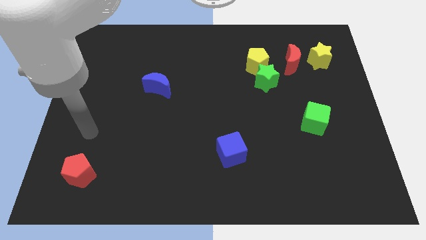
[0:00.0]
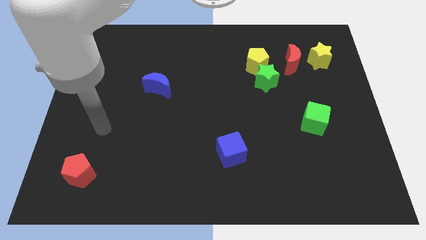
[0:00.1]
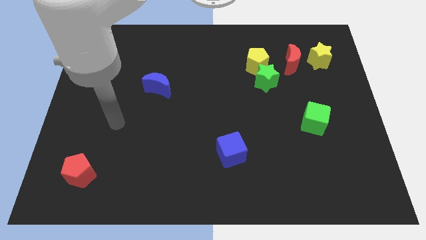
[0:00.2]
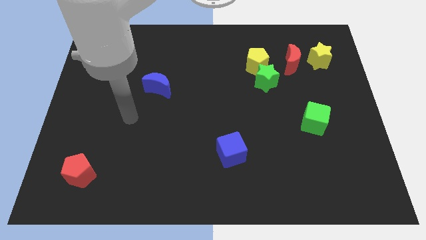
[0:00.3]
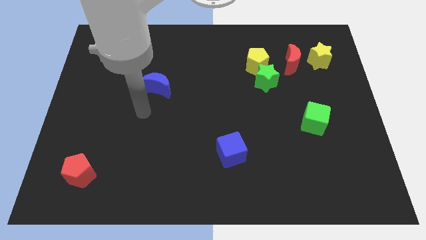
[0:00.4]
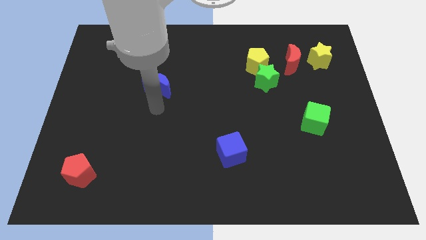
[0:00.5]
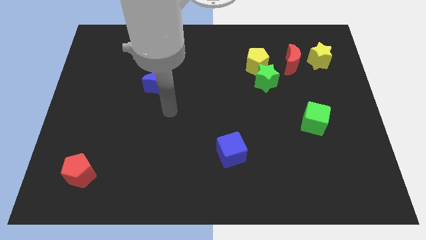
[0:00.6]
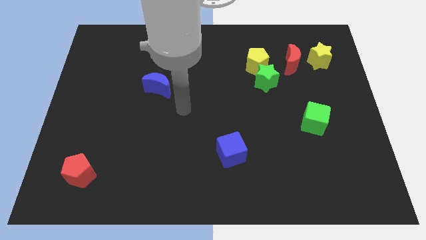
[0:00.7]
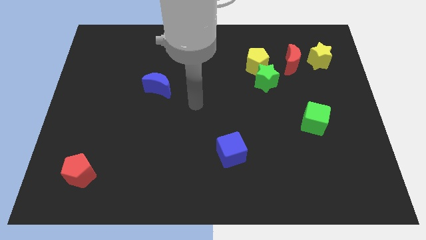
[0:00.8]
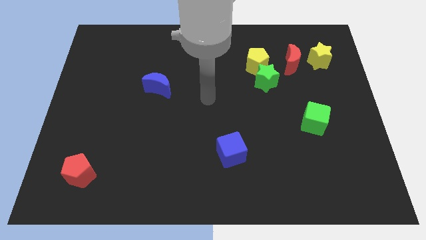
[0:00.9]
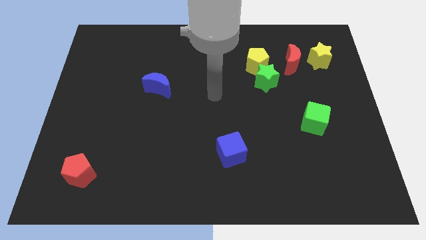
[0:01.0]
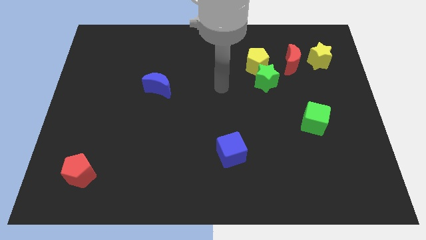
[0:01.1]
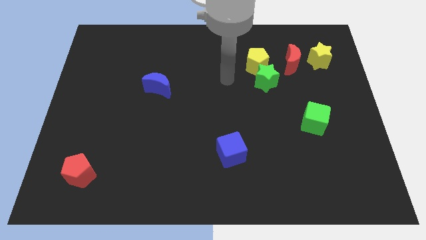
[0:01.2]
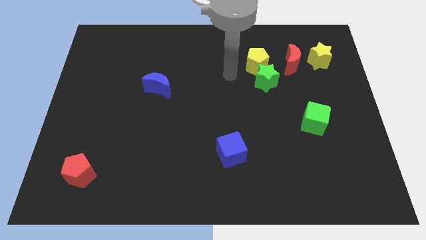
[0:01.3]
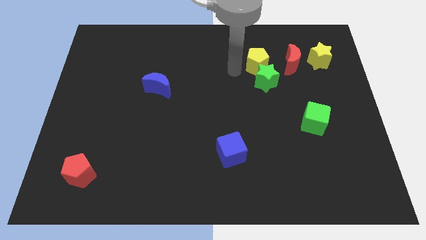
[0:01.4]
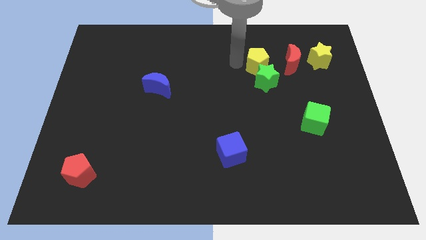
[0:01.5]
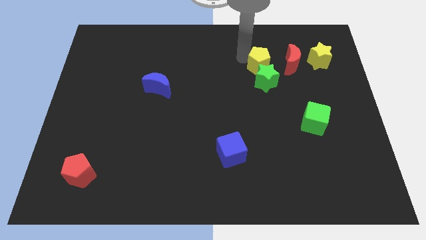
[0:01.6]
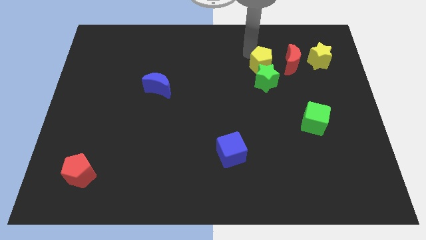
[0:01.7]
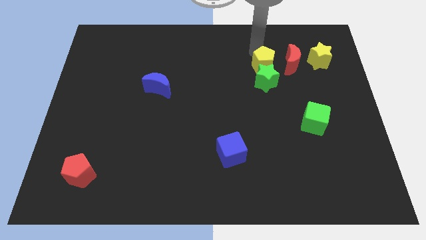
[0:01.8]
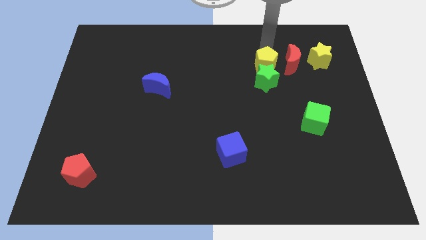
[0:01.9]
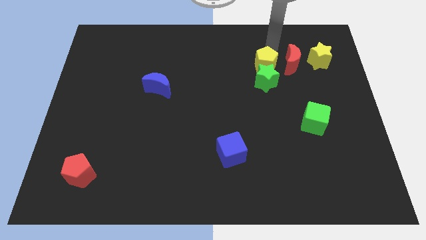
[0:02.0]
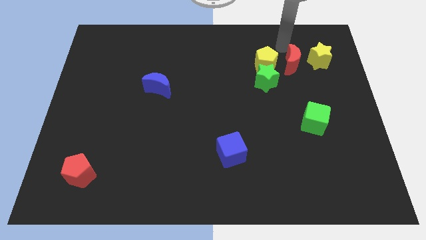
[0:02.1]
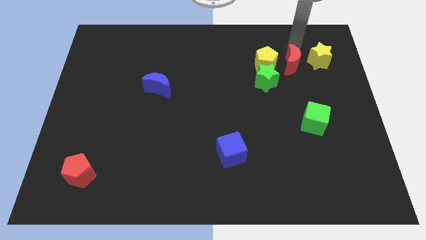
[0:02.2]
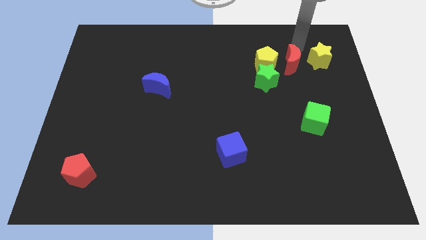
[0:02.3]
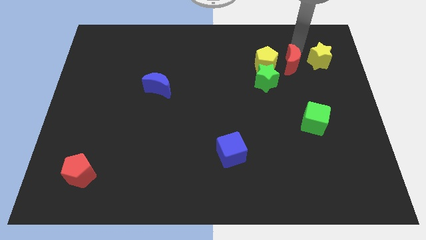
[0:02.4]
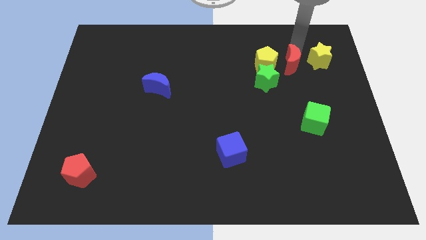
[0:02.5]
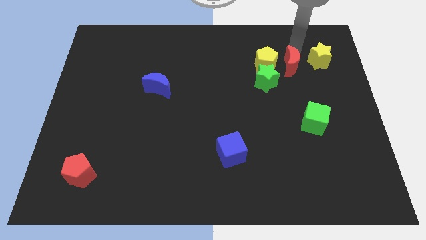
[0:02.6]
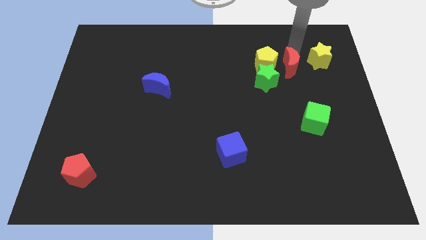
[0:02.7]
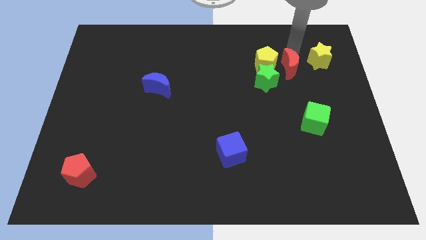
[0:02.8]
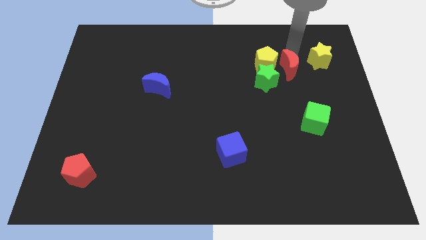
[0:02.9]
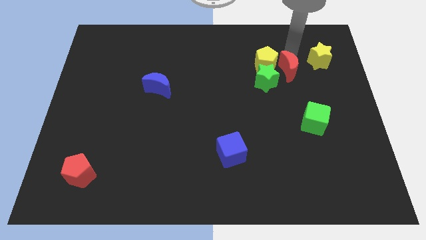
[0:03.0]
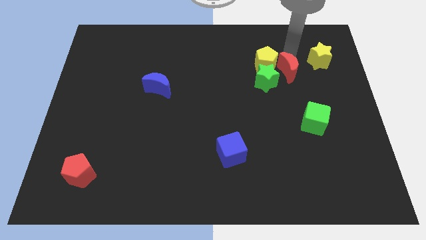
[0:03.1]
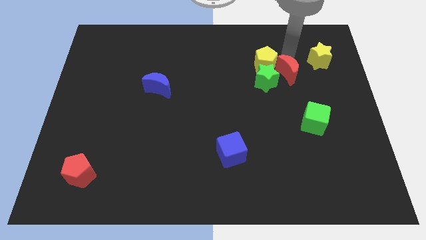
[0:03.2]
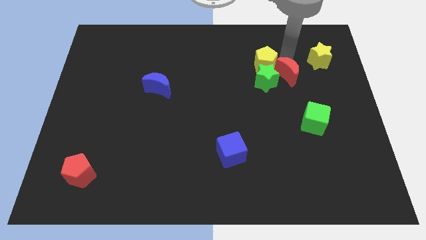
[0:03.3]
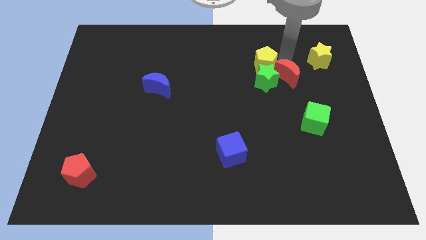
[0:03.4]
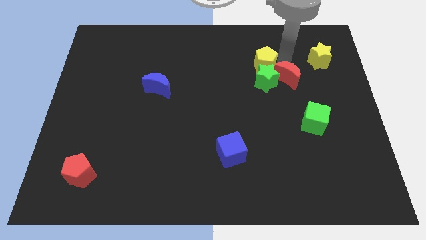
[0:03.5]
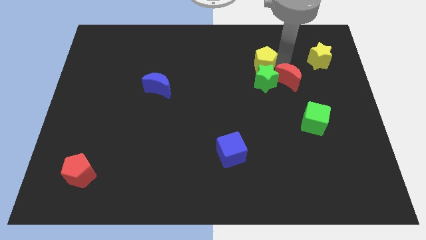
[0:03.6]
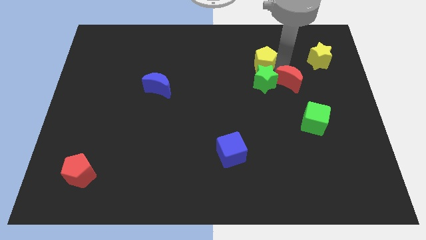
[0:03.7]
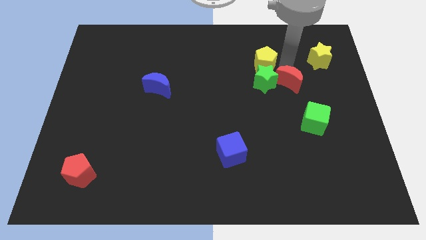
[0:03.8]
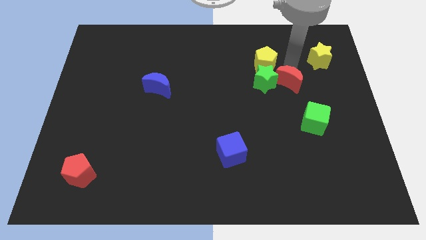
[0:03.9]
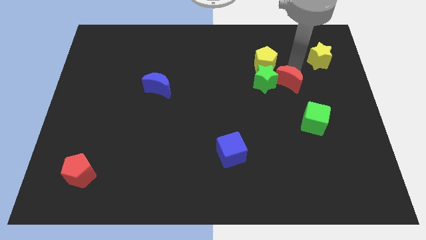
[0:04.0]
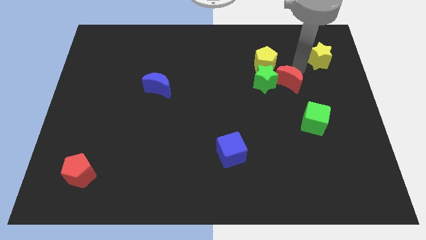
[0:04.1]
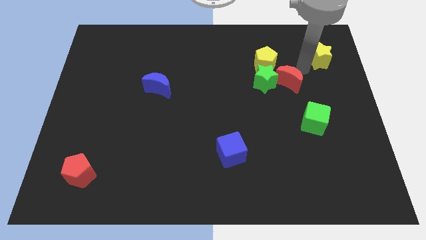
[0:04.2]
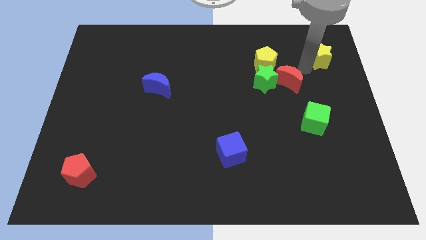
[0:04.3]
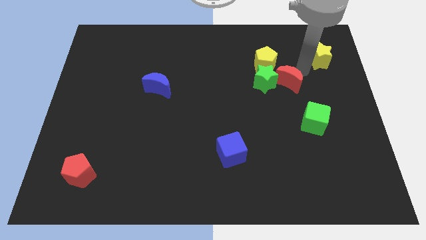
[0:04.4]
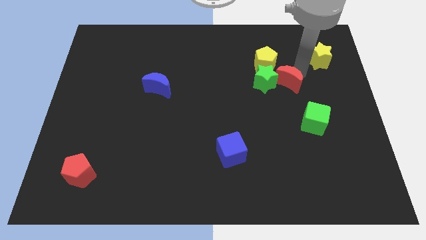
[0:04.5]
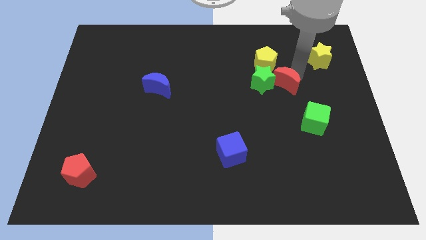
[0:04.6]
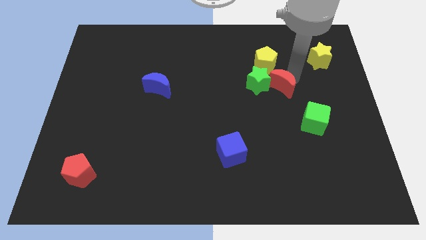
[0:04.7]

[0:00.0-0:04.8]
push the red moon down and to the left a bit

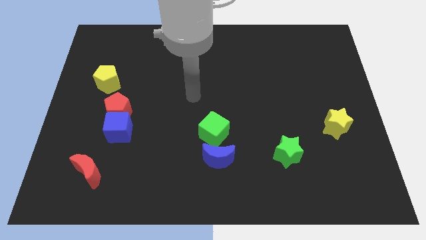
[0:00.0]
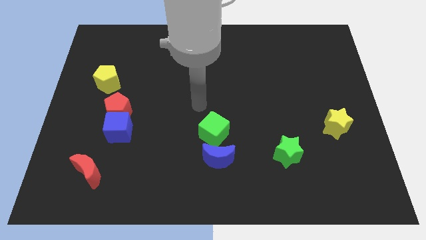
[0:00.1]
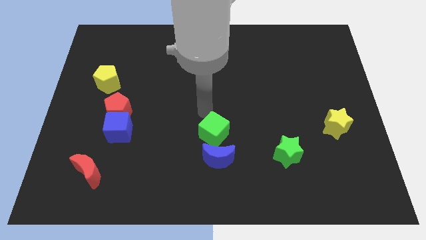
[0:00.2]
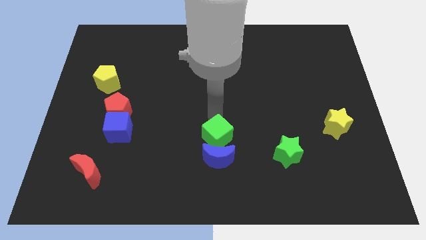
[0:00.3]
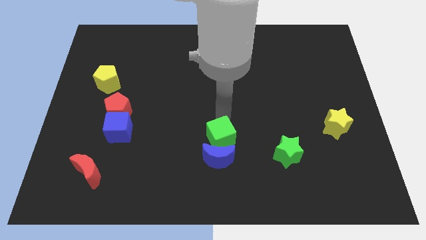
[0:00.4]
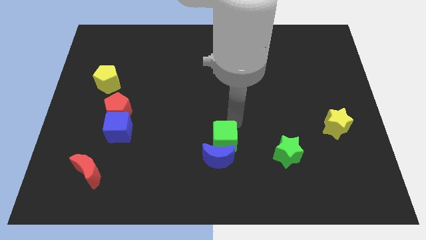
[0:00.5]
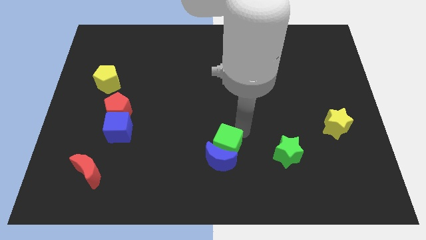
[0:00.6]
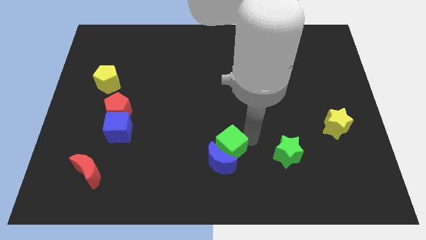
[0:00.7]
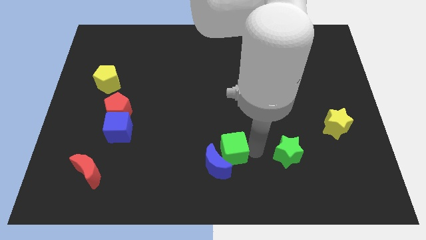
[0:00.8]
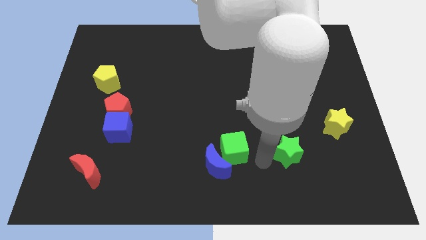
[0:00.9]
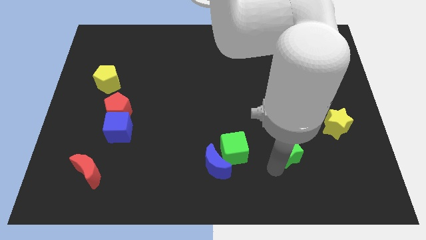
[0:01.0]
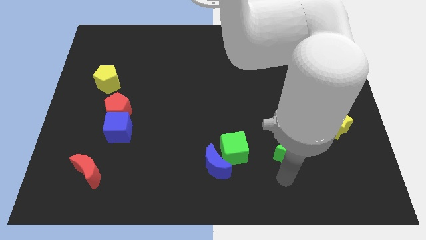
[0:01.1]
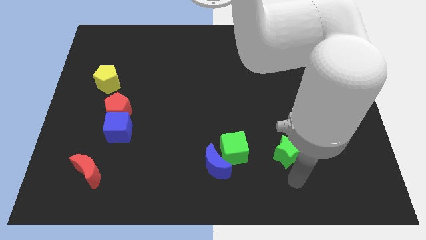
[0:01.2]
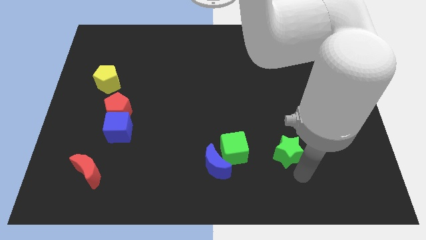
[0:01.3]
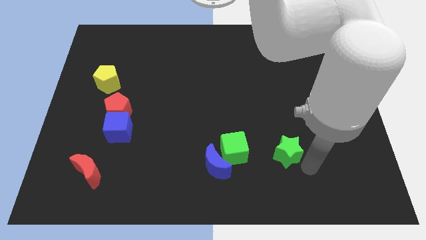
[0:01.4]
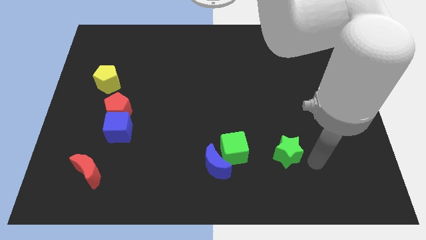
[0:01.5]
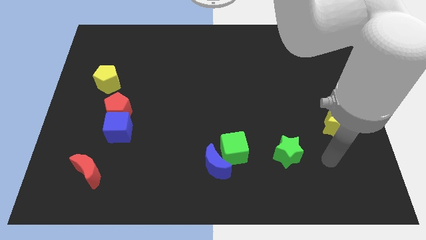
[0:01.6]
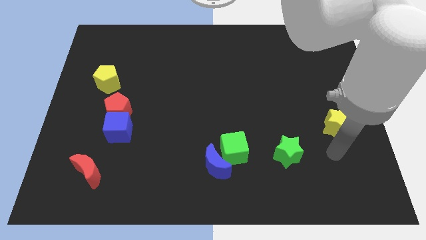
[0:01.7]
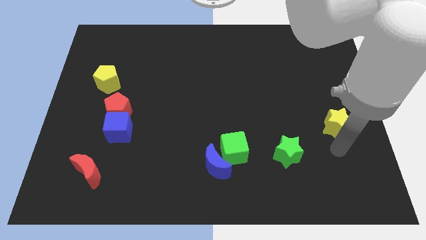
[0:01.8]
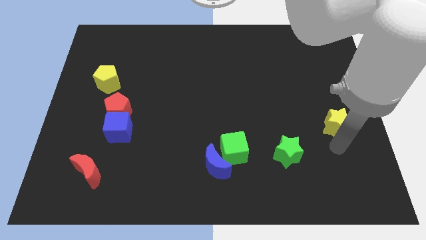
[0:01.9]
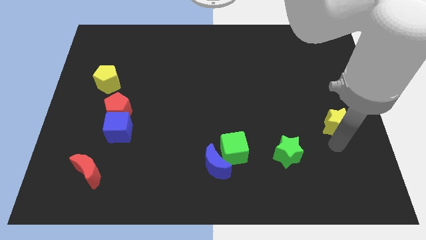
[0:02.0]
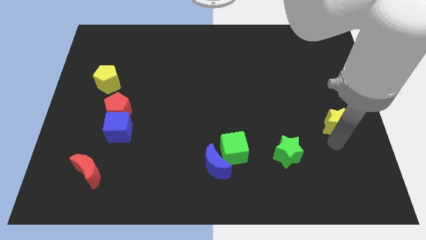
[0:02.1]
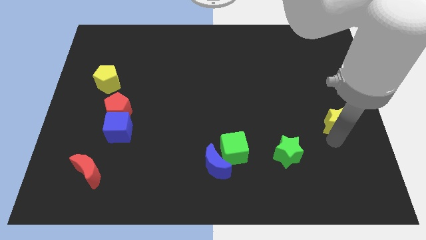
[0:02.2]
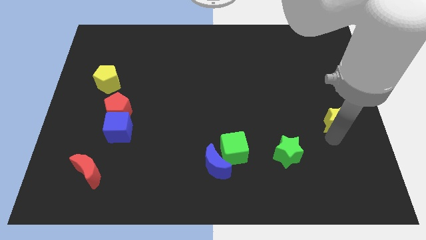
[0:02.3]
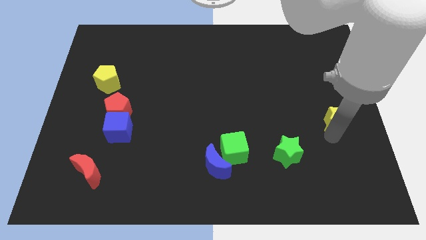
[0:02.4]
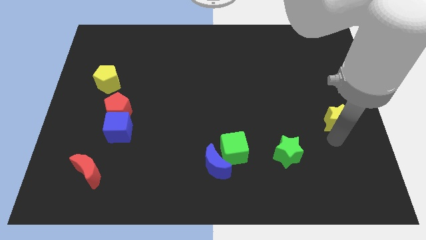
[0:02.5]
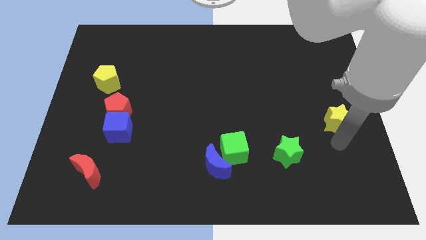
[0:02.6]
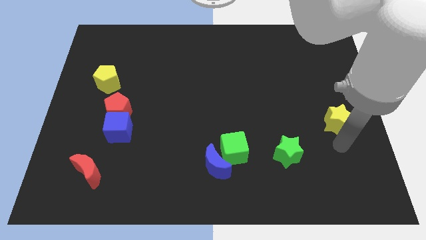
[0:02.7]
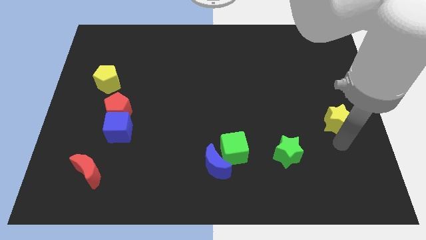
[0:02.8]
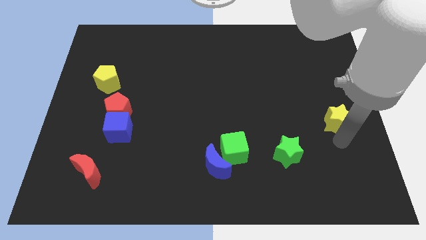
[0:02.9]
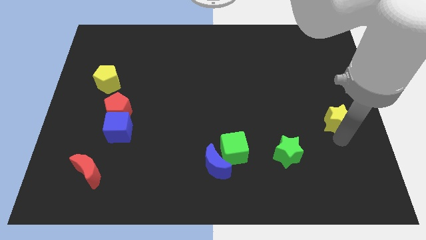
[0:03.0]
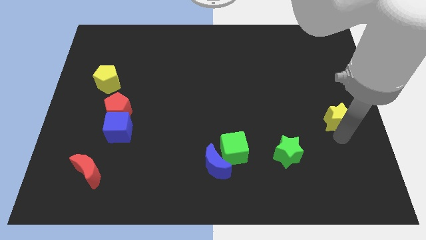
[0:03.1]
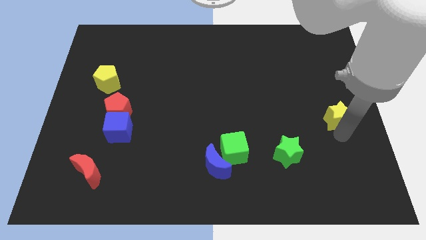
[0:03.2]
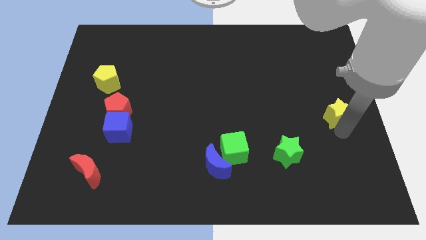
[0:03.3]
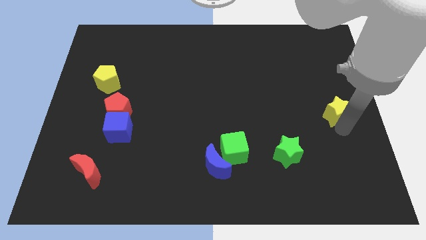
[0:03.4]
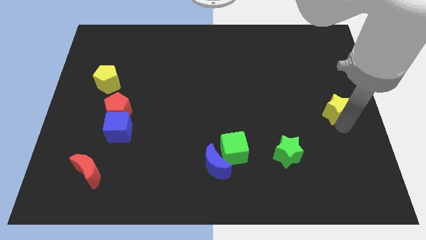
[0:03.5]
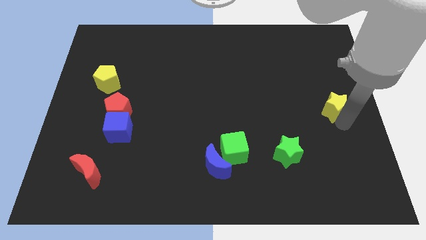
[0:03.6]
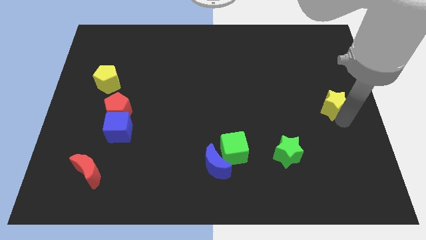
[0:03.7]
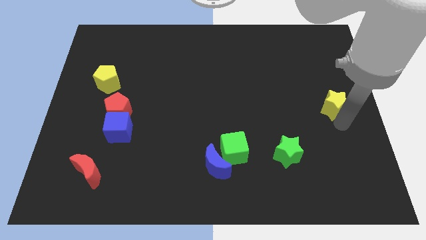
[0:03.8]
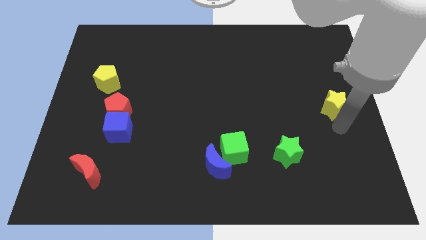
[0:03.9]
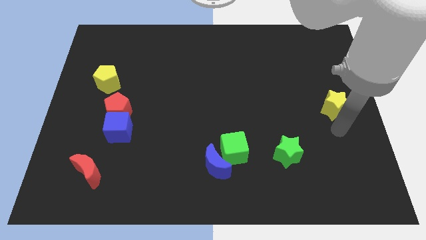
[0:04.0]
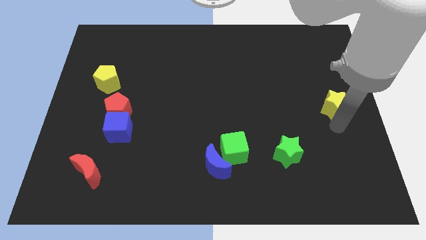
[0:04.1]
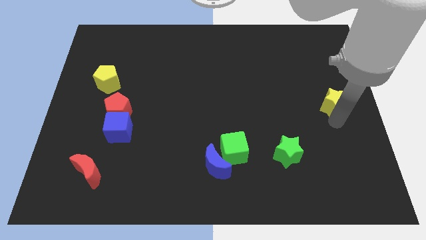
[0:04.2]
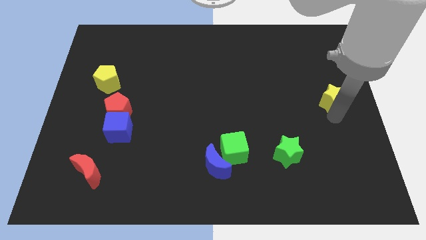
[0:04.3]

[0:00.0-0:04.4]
slightly move the yellow star upwards
